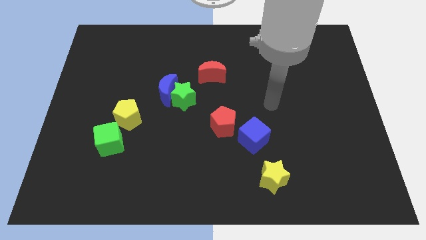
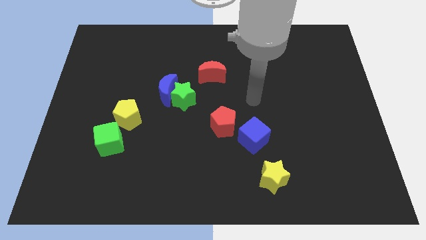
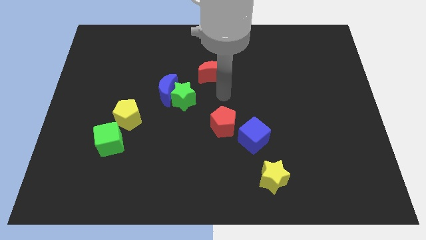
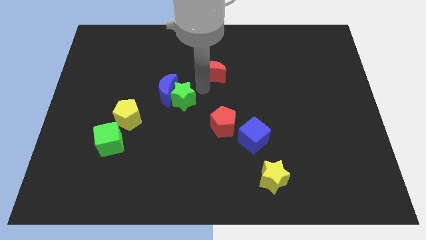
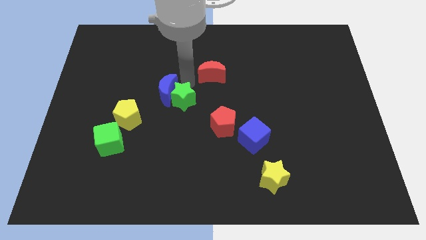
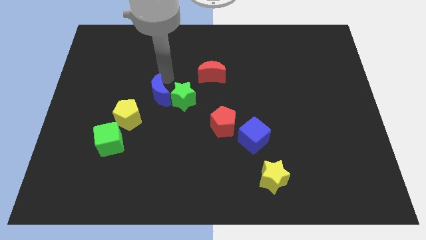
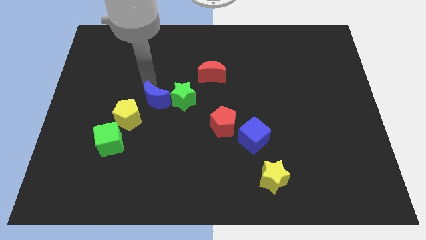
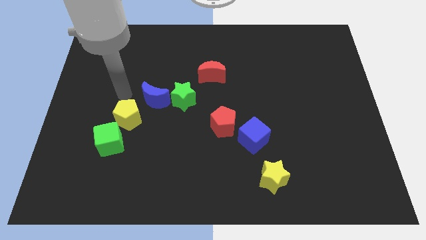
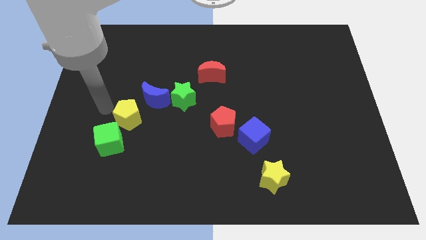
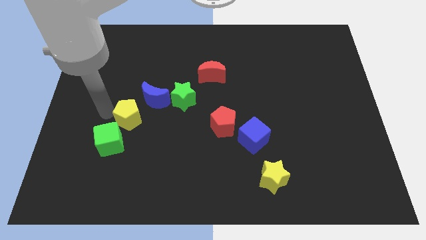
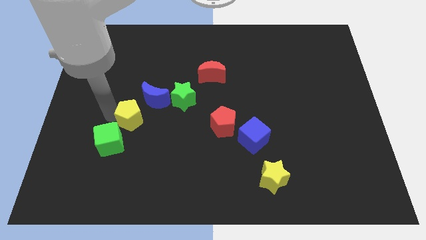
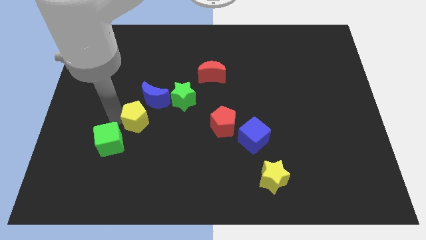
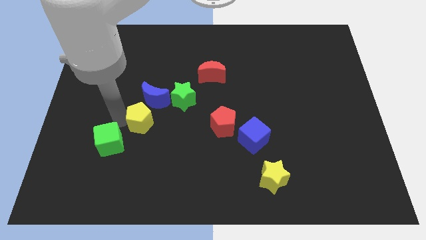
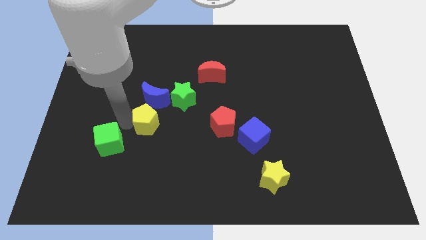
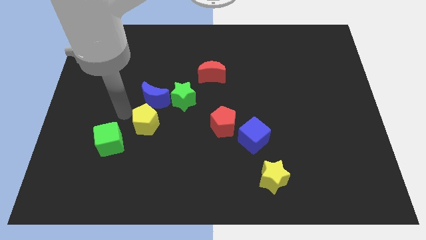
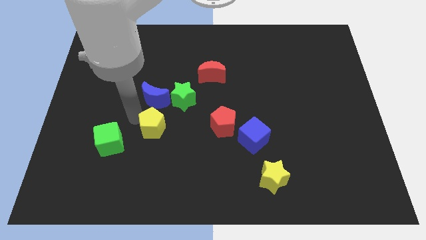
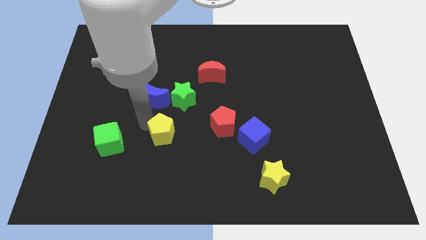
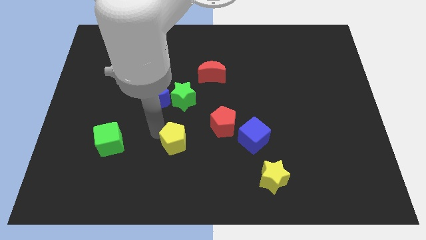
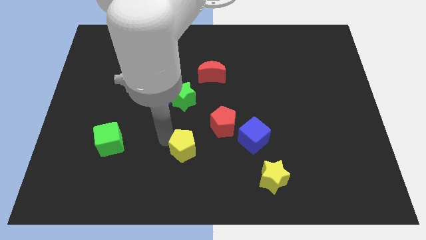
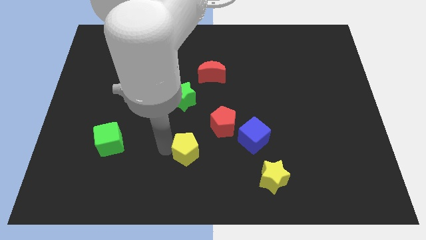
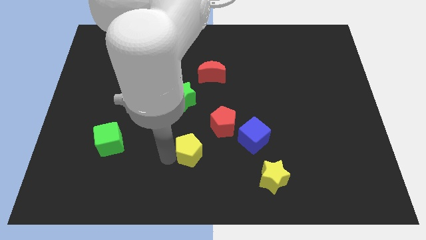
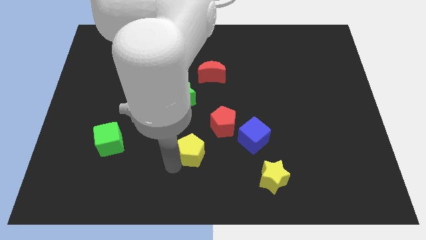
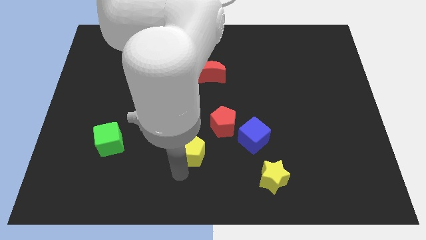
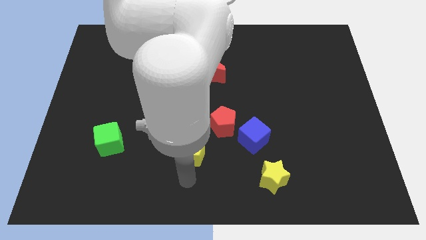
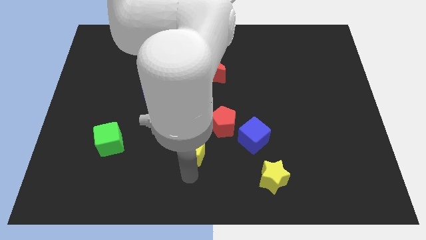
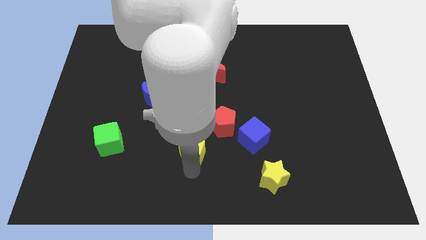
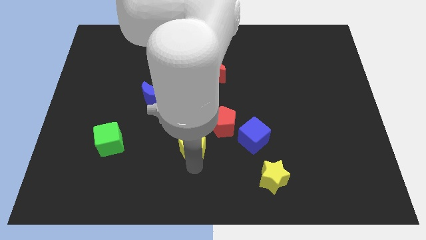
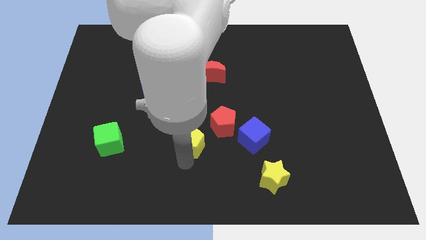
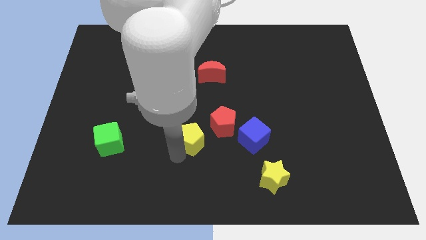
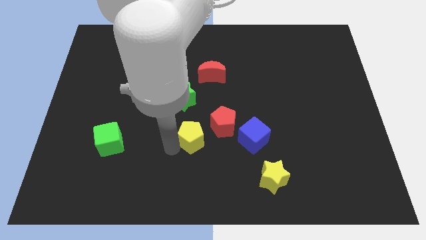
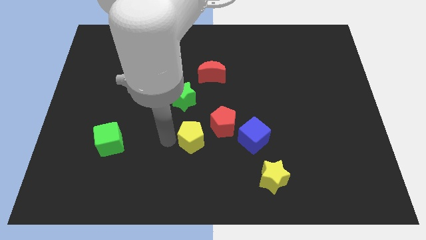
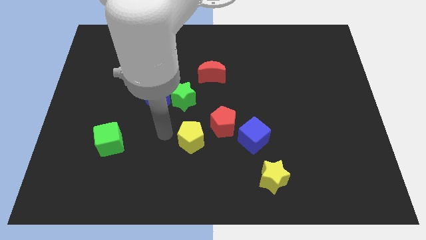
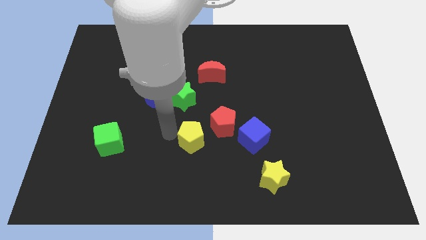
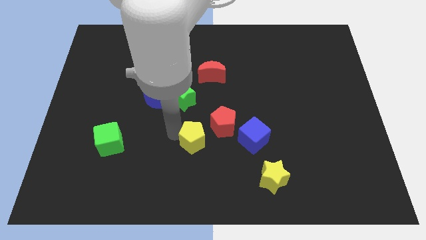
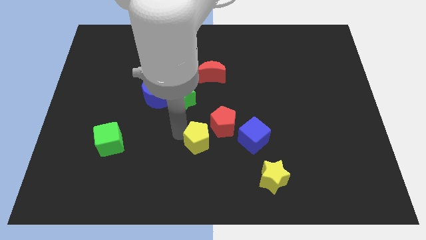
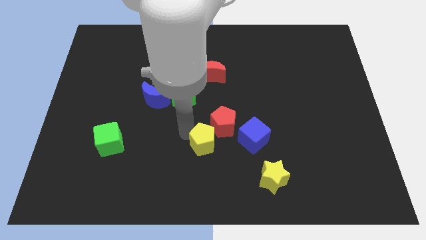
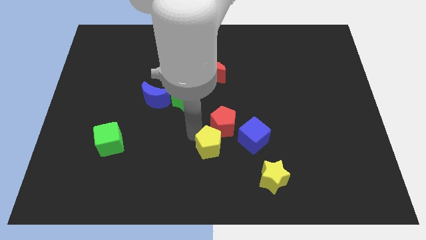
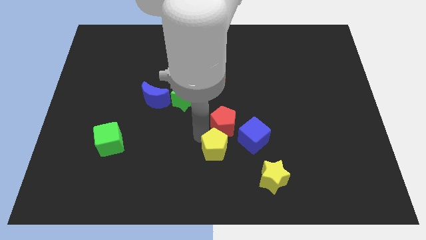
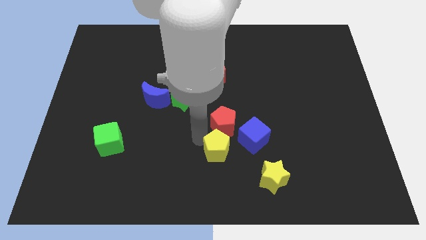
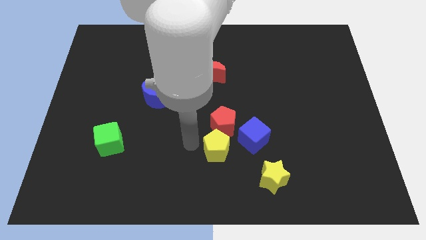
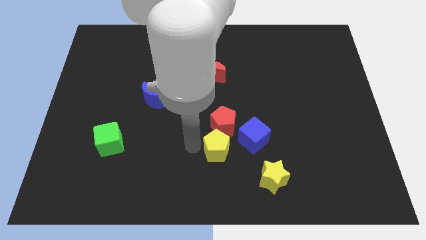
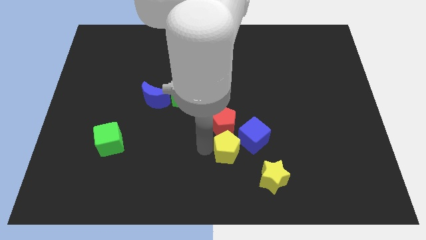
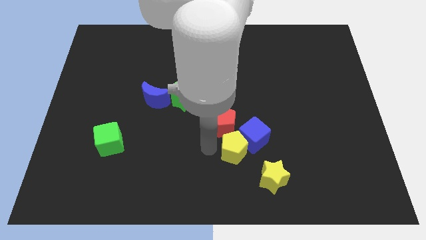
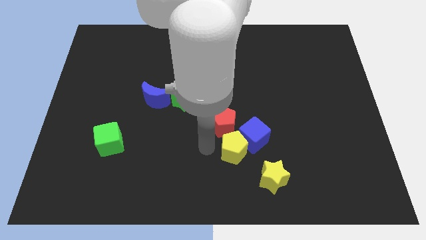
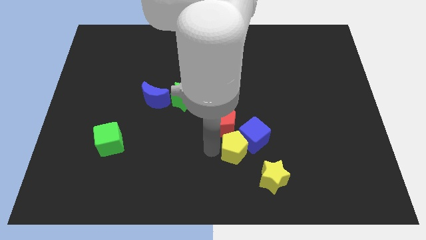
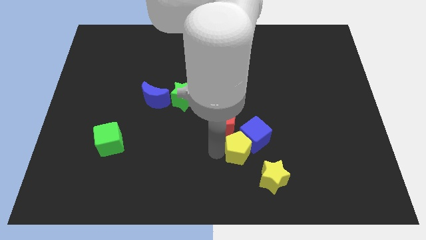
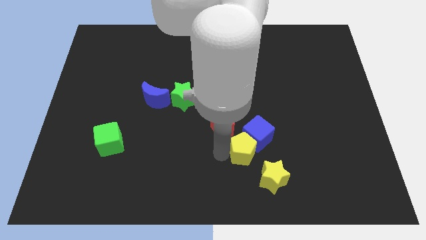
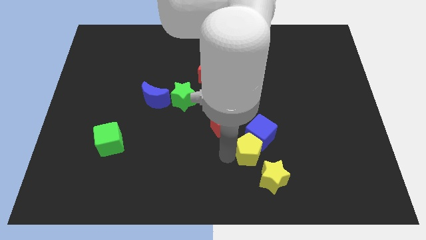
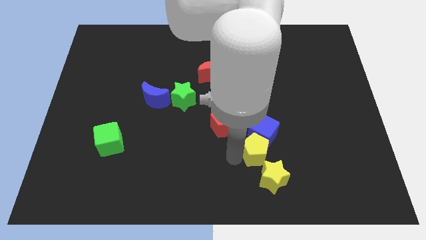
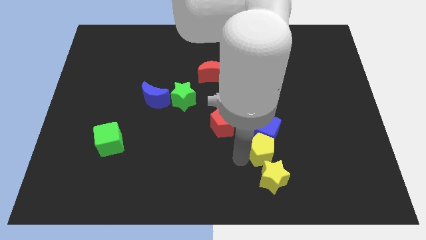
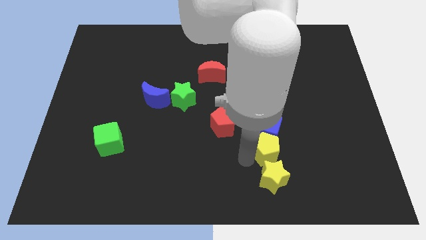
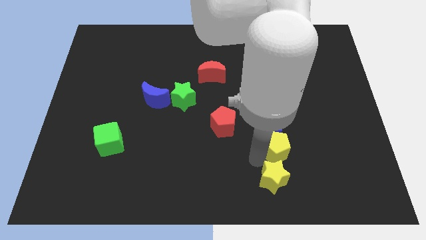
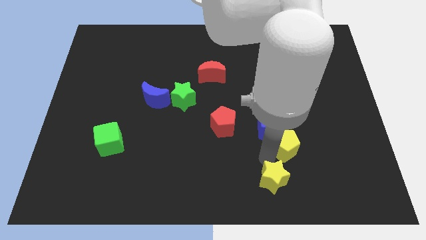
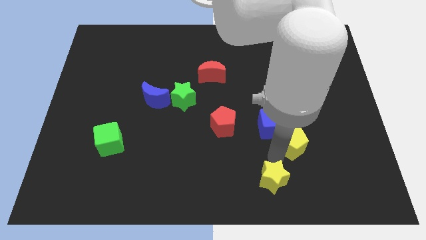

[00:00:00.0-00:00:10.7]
move the yellow pentagon just right of the blue cube

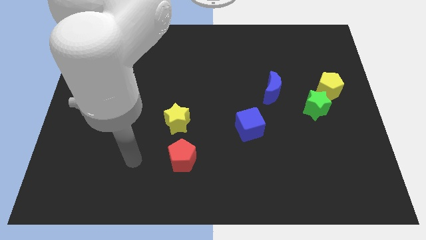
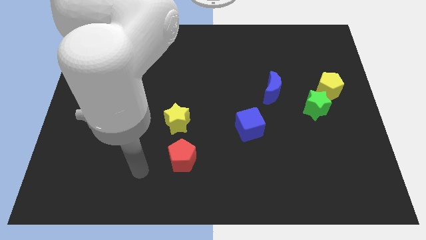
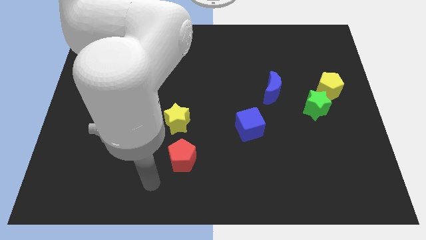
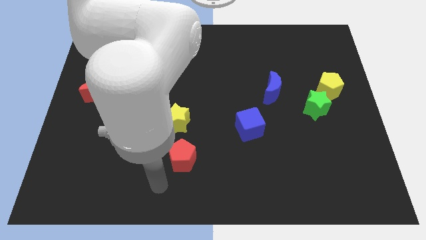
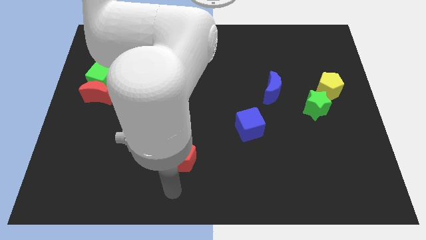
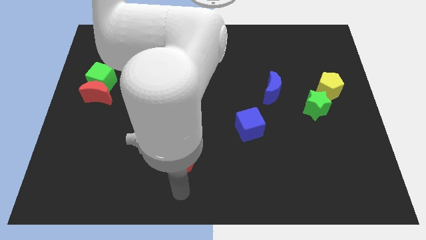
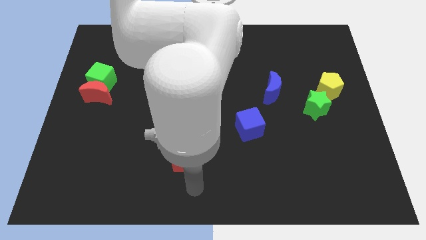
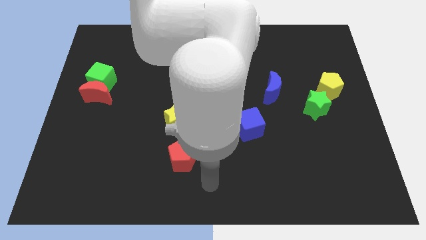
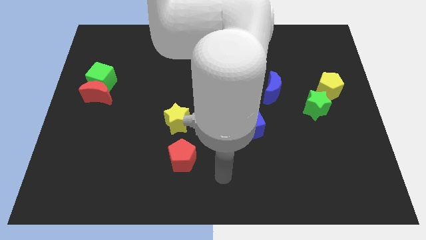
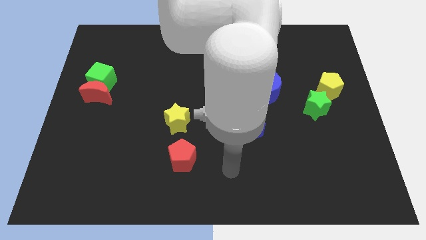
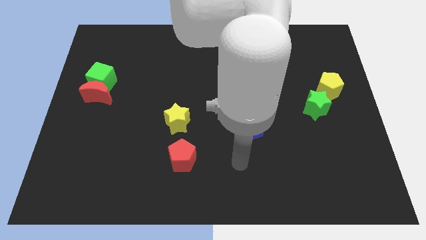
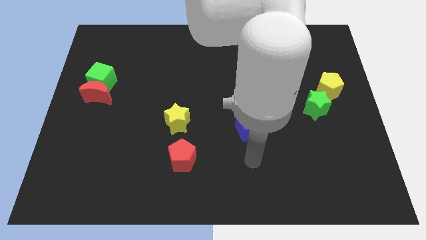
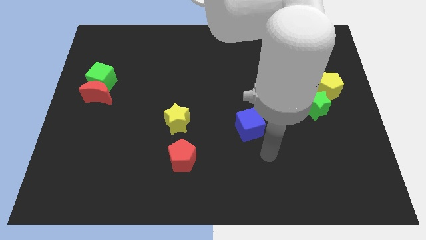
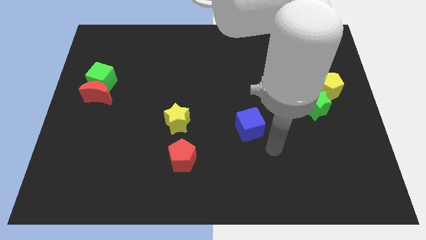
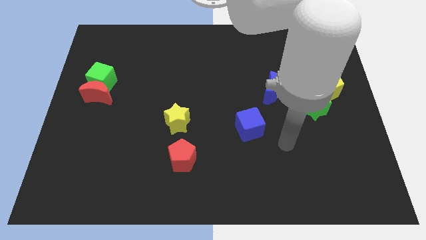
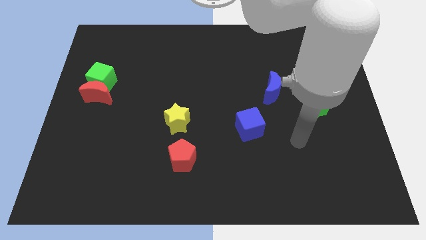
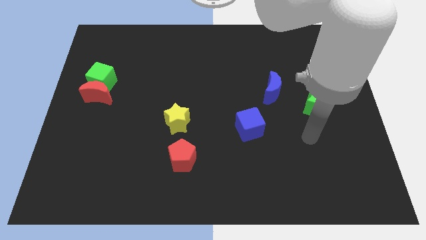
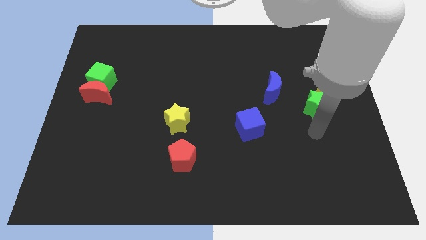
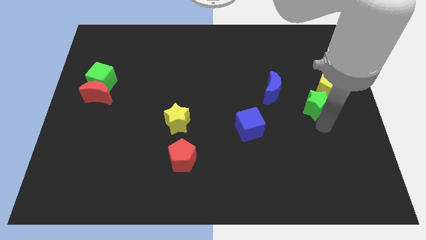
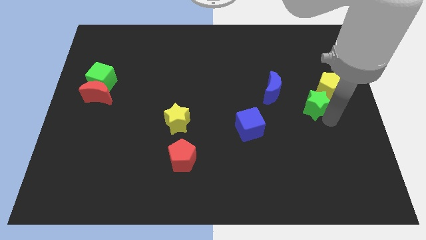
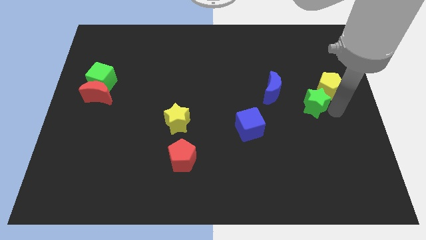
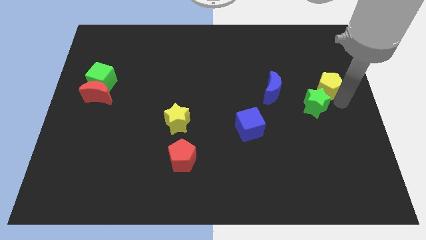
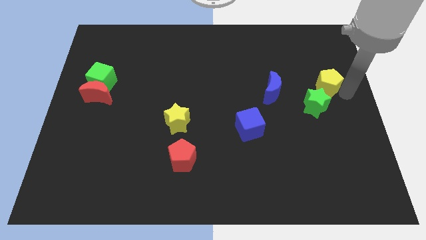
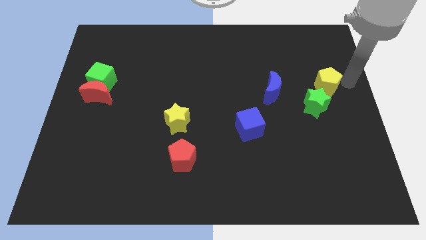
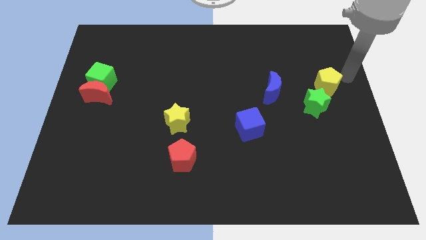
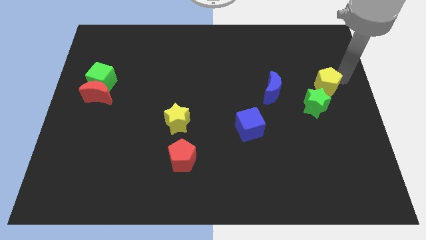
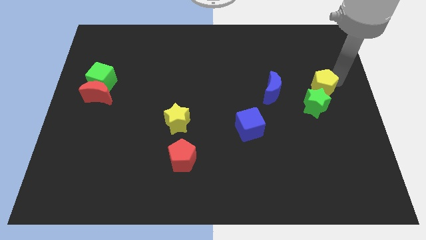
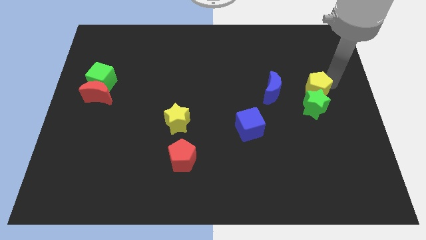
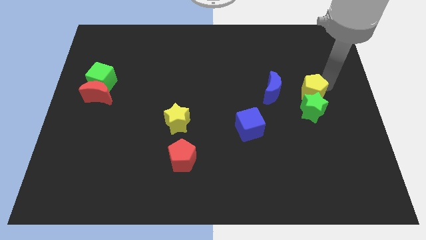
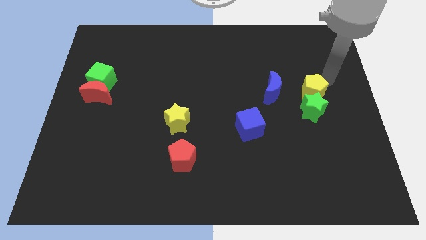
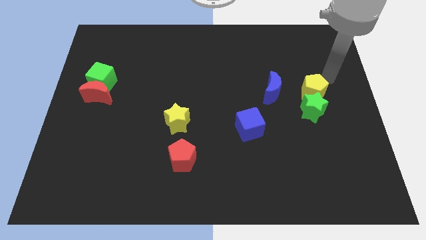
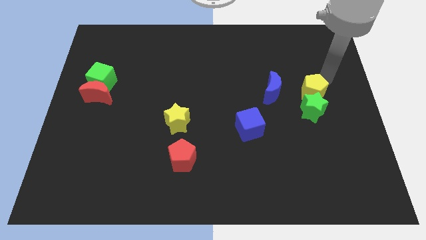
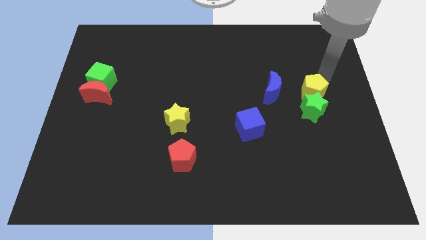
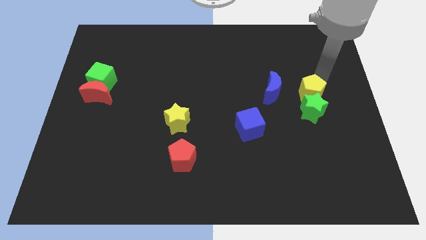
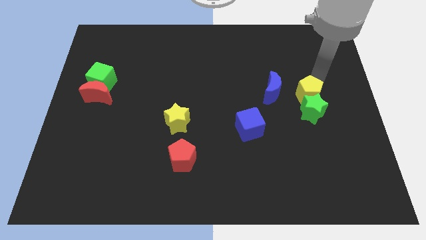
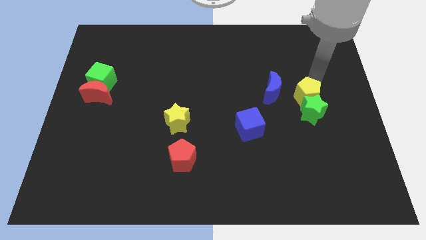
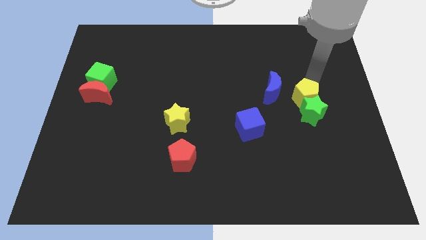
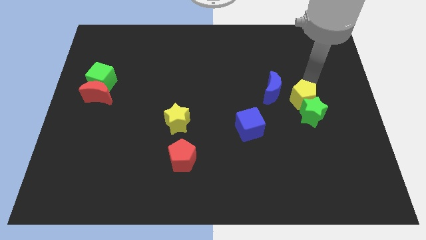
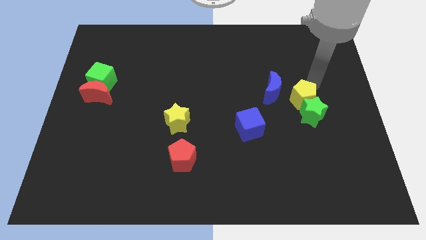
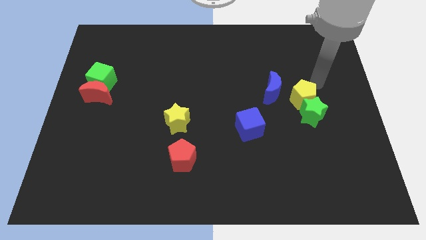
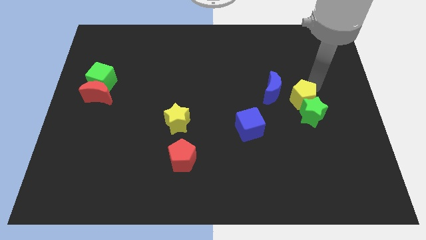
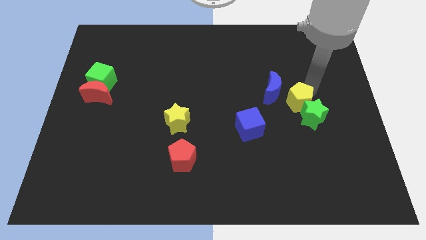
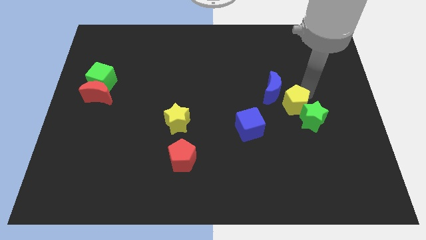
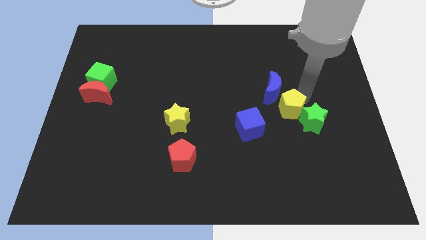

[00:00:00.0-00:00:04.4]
put the yellow pentagon to the top right of the blue cube
